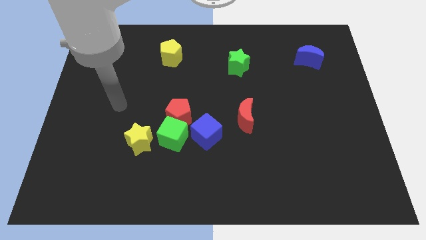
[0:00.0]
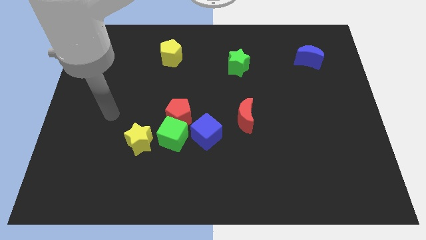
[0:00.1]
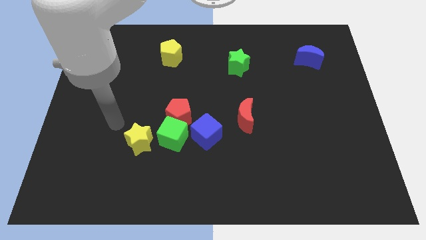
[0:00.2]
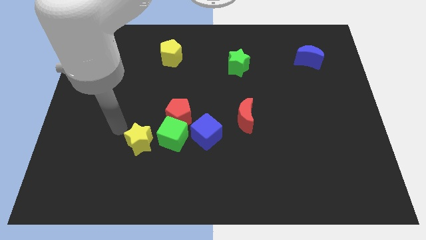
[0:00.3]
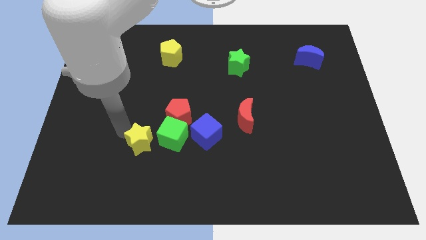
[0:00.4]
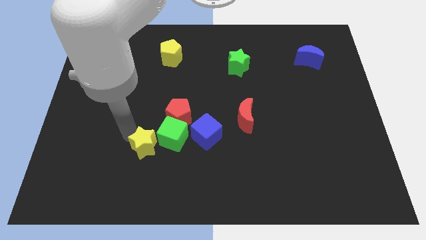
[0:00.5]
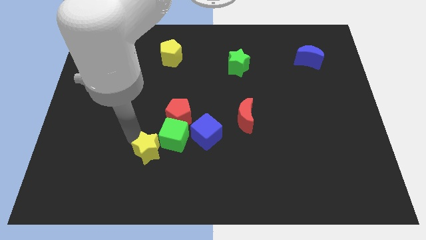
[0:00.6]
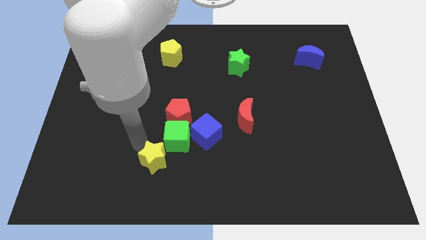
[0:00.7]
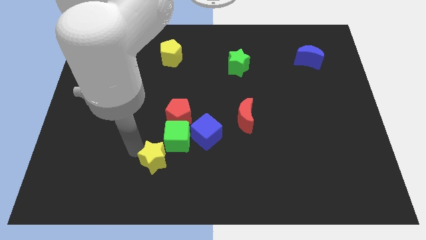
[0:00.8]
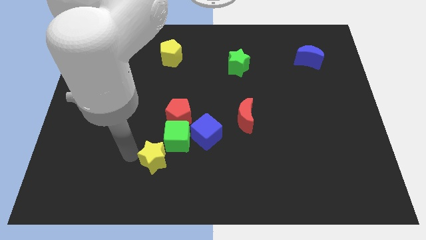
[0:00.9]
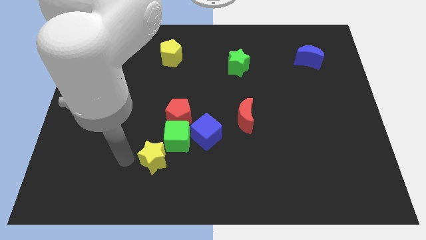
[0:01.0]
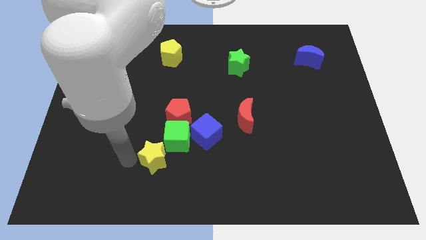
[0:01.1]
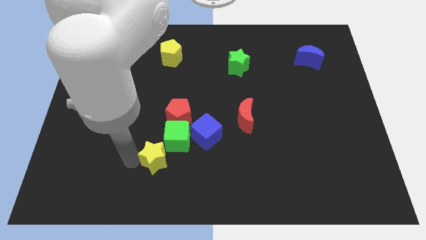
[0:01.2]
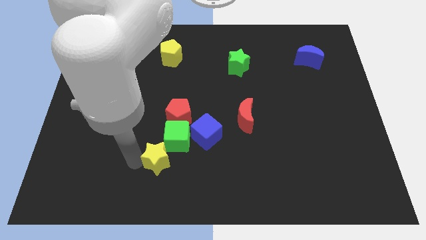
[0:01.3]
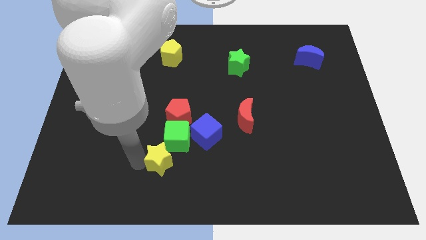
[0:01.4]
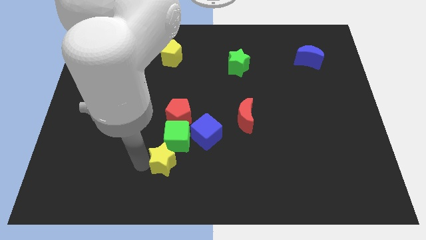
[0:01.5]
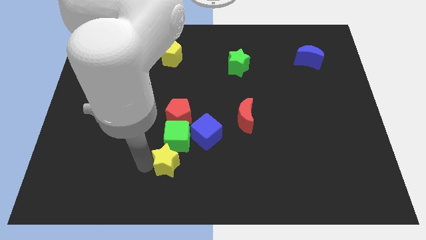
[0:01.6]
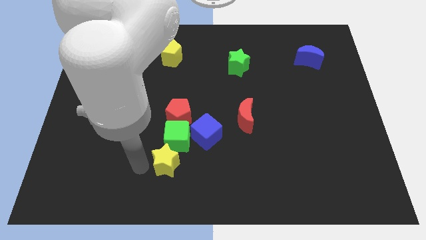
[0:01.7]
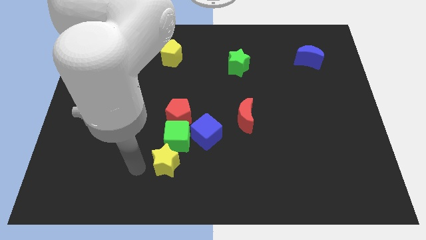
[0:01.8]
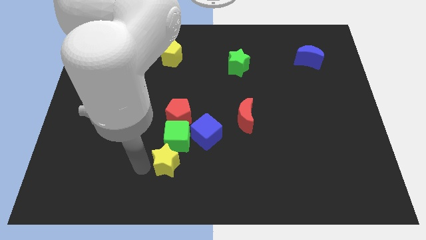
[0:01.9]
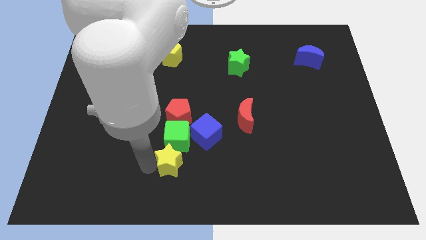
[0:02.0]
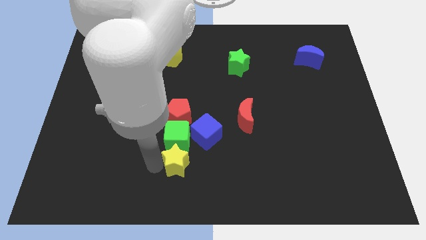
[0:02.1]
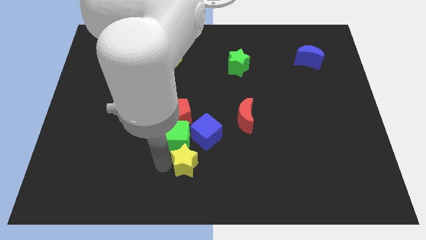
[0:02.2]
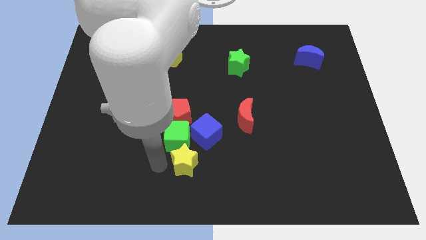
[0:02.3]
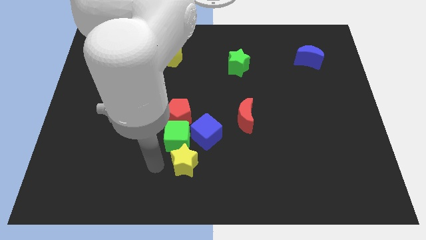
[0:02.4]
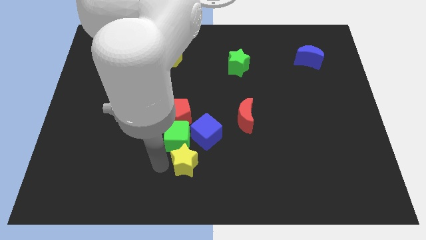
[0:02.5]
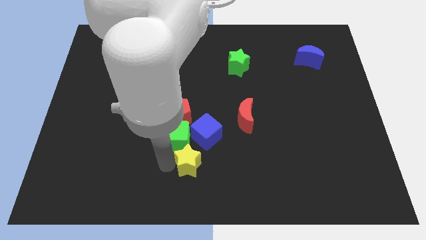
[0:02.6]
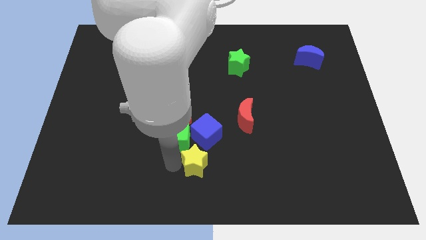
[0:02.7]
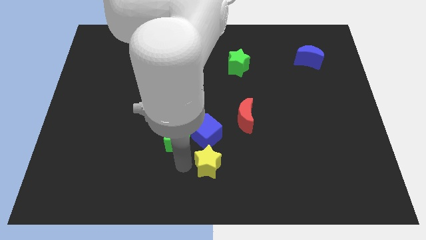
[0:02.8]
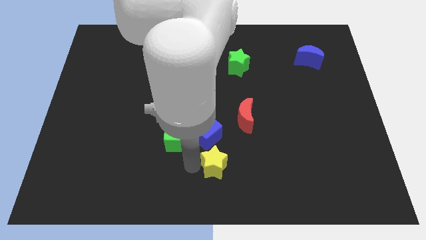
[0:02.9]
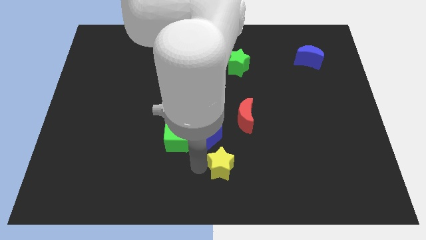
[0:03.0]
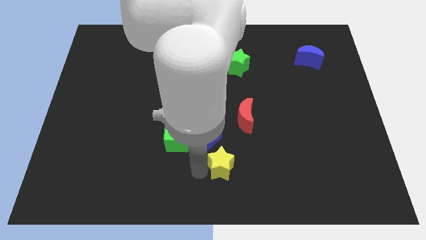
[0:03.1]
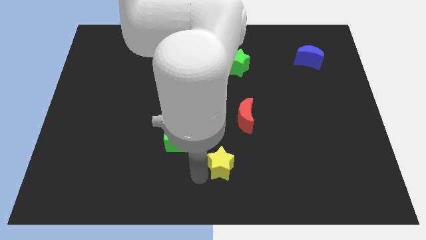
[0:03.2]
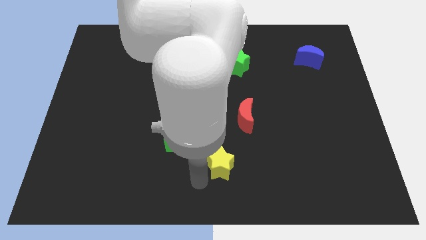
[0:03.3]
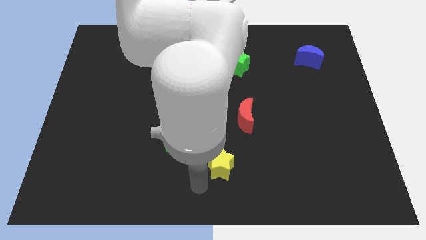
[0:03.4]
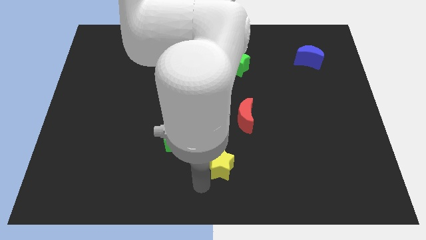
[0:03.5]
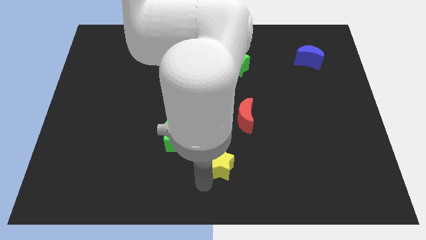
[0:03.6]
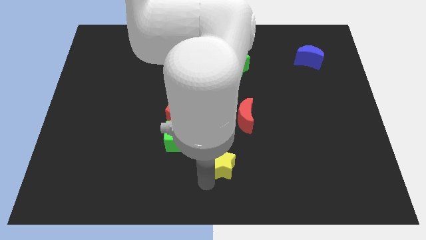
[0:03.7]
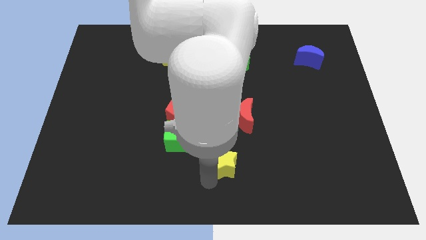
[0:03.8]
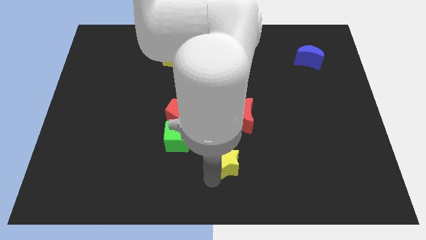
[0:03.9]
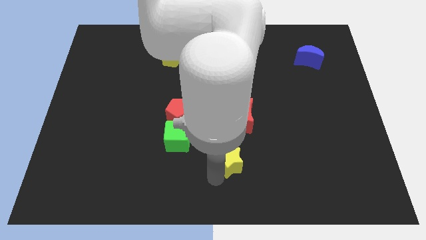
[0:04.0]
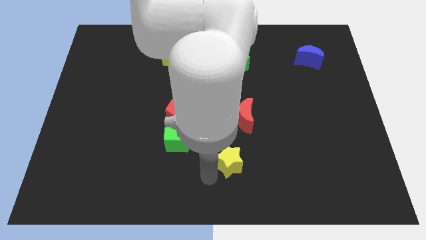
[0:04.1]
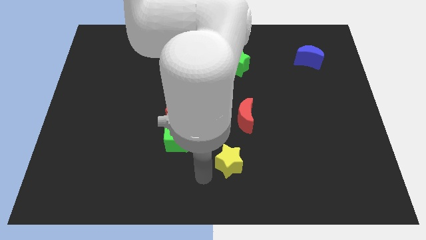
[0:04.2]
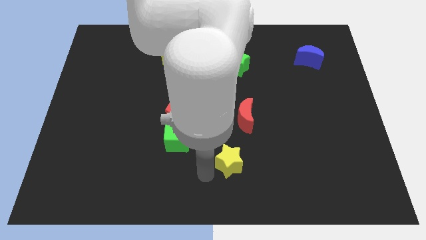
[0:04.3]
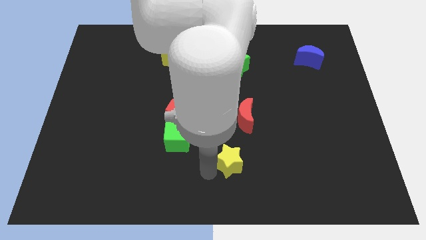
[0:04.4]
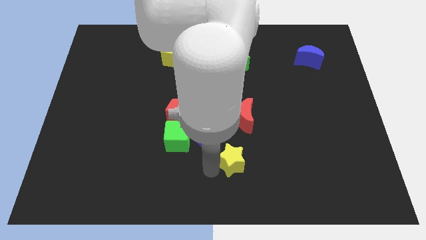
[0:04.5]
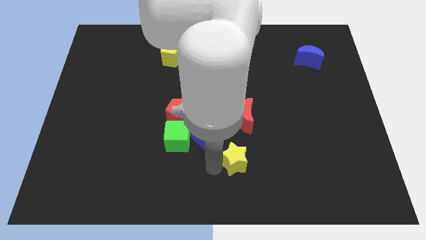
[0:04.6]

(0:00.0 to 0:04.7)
push the yellow star to the right

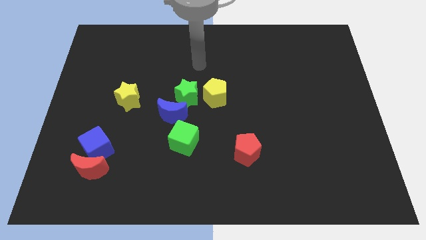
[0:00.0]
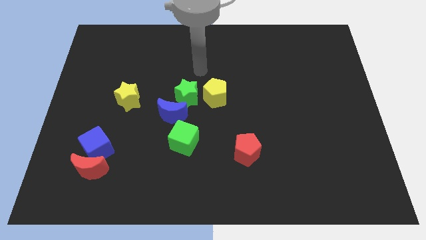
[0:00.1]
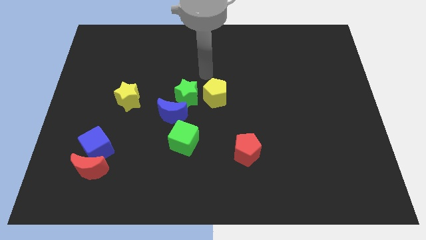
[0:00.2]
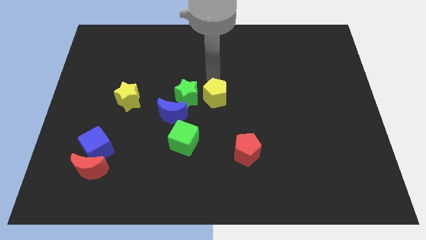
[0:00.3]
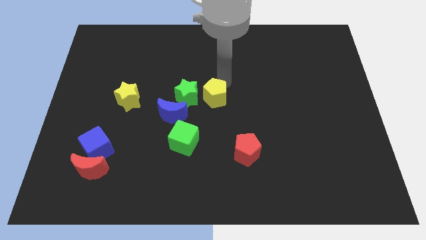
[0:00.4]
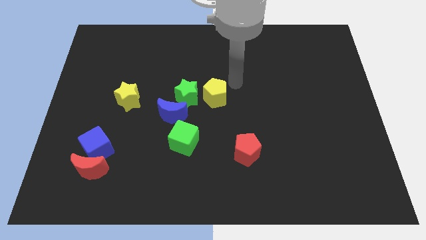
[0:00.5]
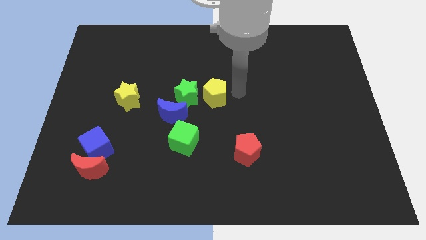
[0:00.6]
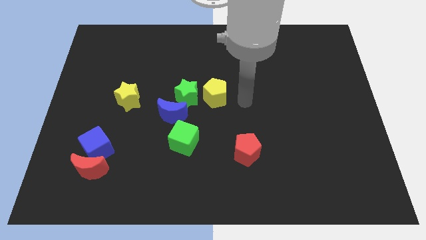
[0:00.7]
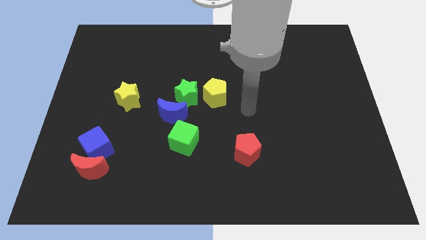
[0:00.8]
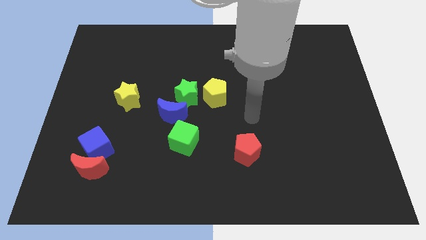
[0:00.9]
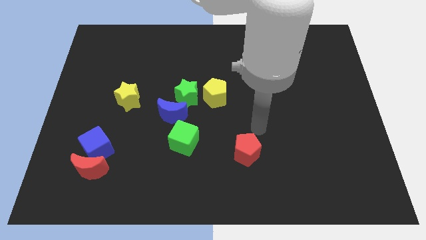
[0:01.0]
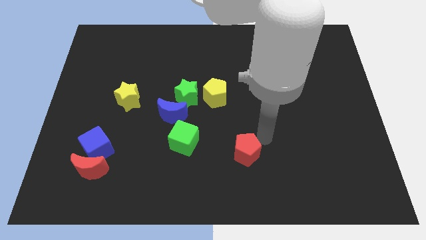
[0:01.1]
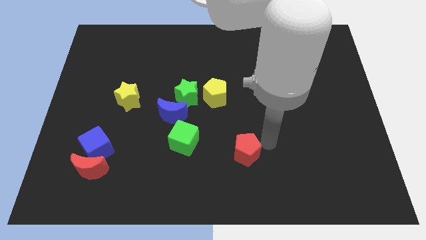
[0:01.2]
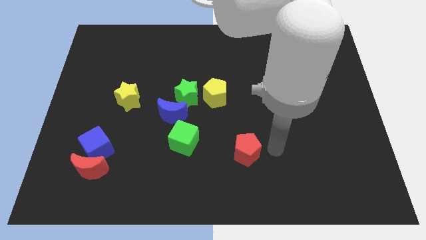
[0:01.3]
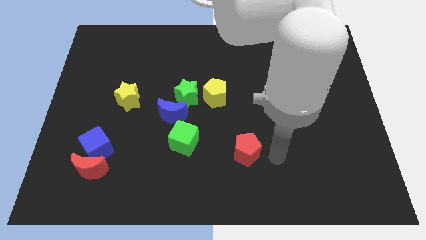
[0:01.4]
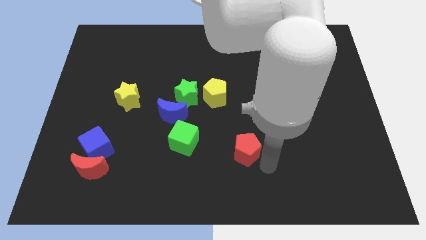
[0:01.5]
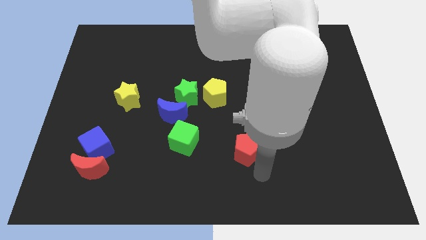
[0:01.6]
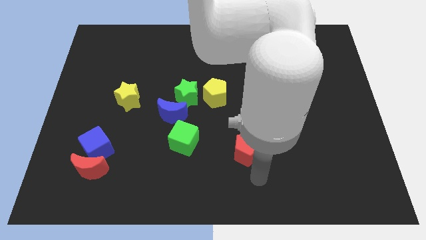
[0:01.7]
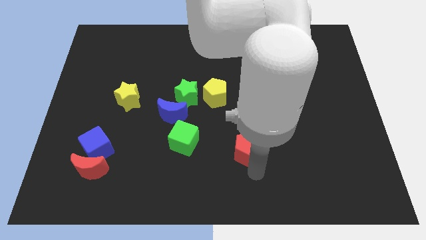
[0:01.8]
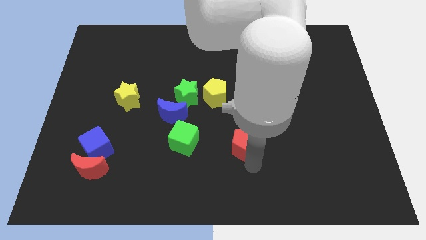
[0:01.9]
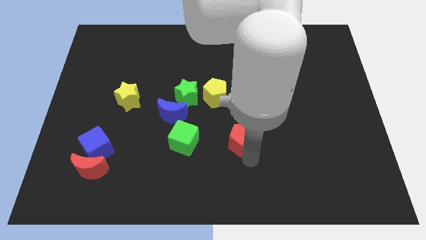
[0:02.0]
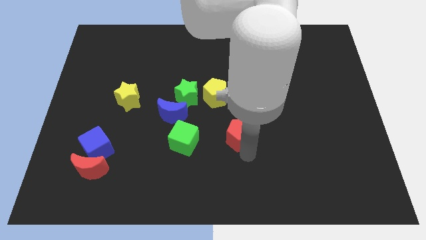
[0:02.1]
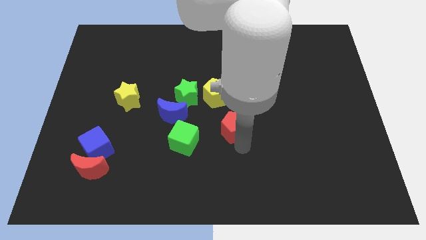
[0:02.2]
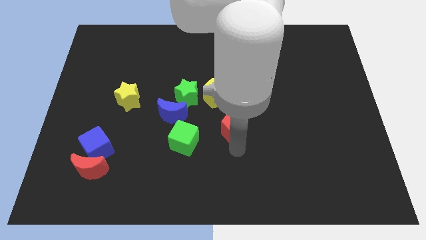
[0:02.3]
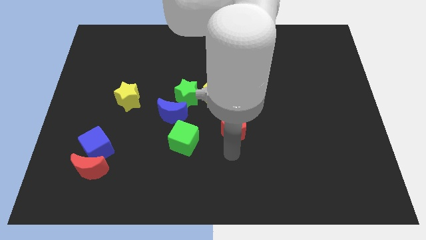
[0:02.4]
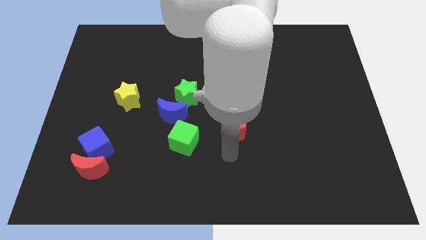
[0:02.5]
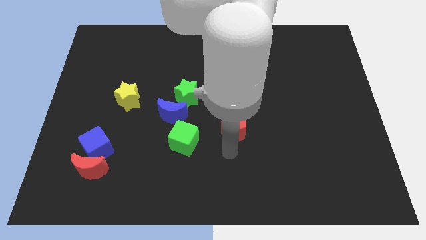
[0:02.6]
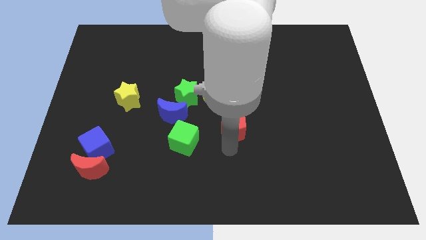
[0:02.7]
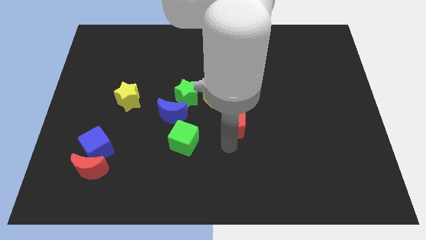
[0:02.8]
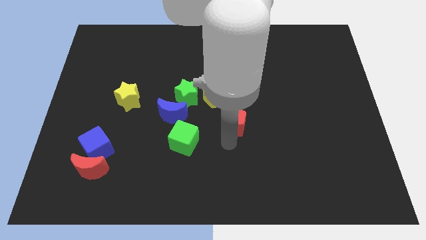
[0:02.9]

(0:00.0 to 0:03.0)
slide the red pentagon slightly upwards

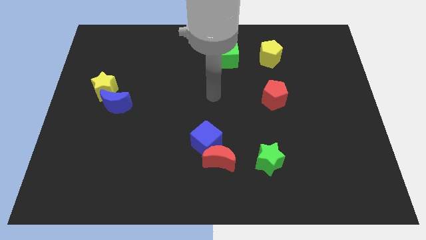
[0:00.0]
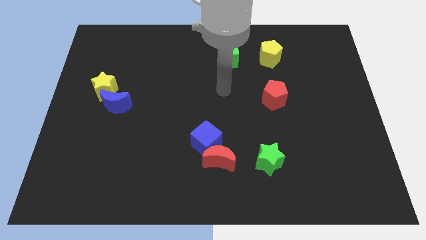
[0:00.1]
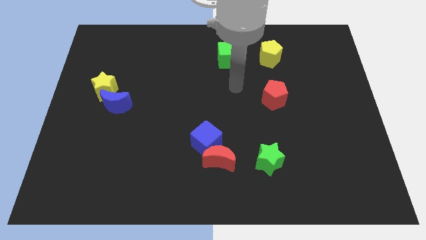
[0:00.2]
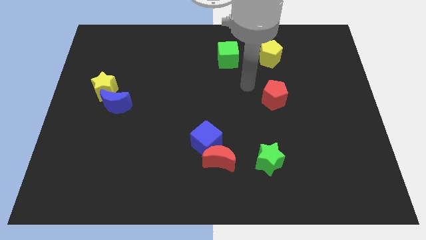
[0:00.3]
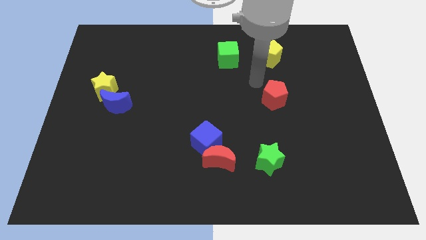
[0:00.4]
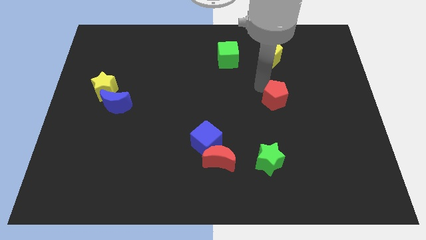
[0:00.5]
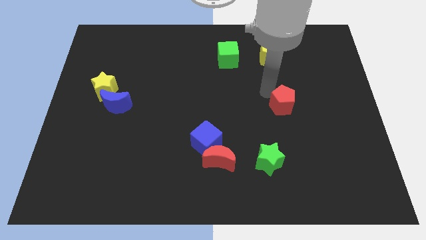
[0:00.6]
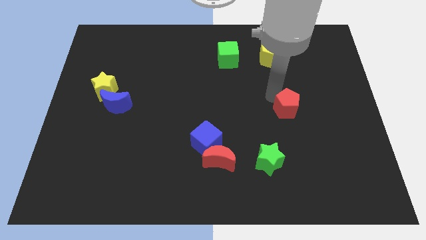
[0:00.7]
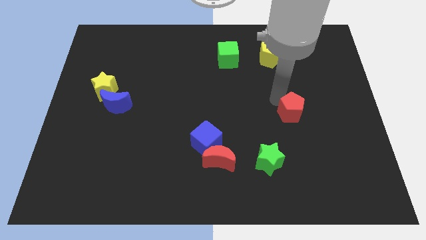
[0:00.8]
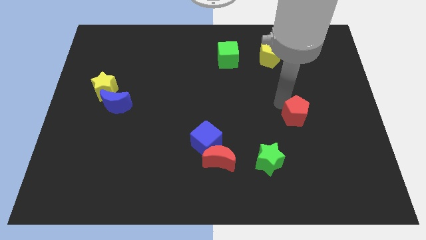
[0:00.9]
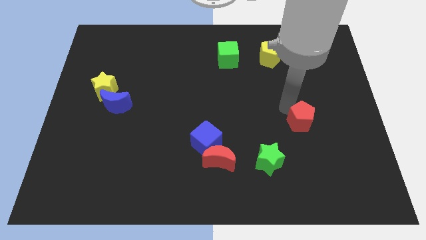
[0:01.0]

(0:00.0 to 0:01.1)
move the red pentagon downwards and right slightly
